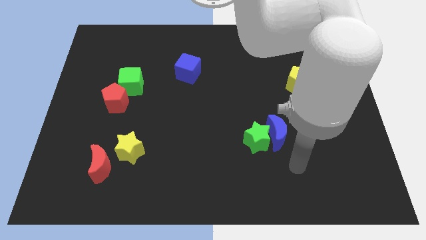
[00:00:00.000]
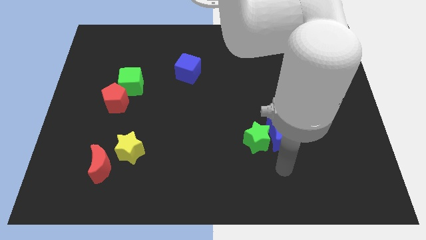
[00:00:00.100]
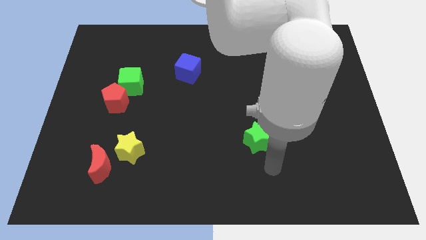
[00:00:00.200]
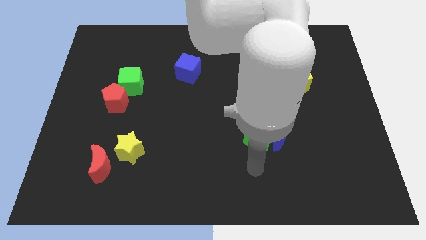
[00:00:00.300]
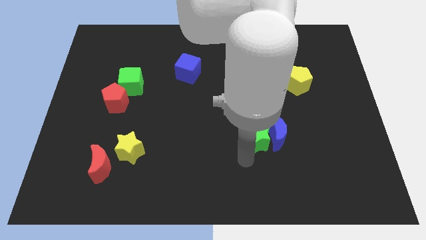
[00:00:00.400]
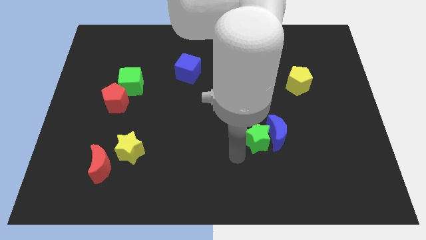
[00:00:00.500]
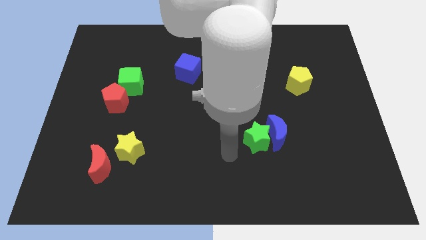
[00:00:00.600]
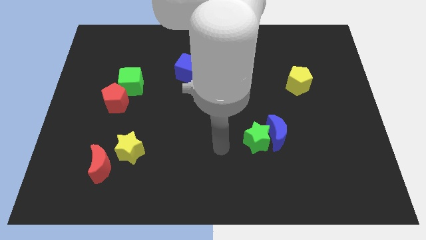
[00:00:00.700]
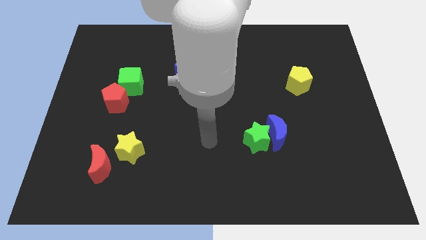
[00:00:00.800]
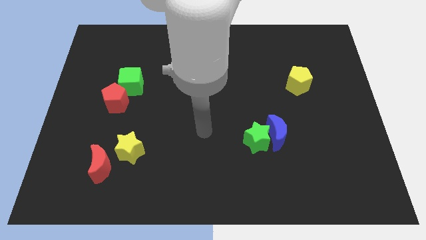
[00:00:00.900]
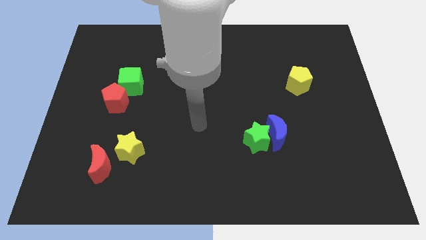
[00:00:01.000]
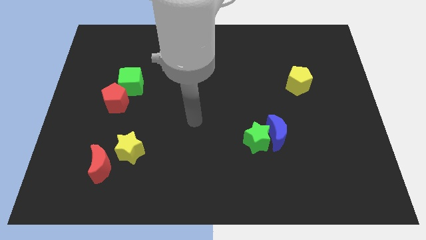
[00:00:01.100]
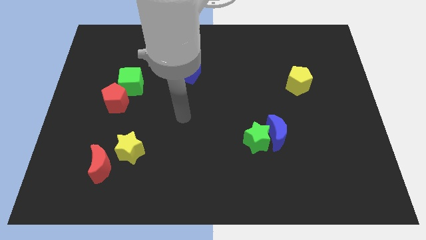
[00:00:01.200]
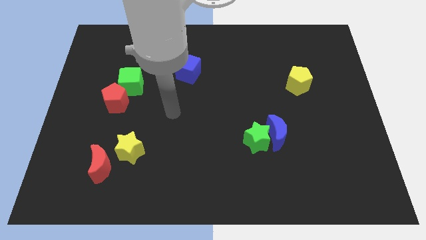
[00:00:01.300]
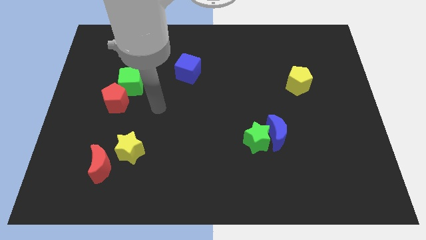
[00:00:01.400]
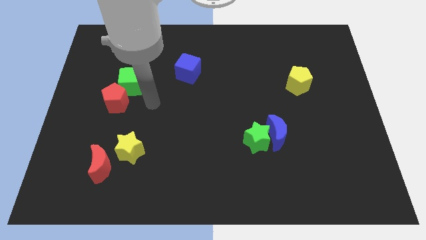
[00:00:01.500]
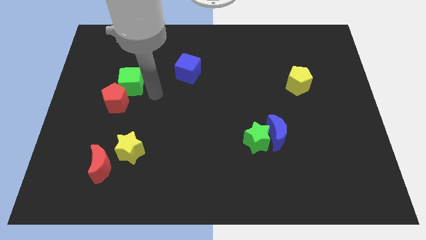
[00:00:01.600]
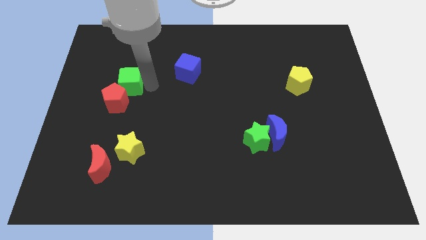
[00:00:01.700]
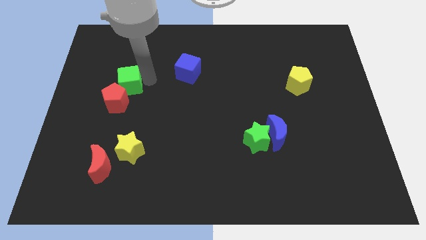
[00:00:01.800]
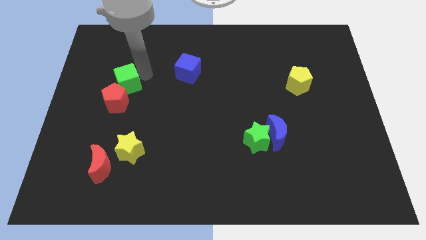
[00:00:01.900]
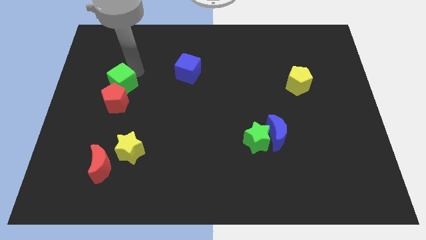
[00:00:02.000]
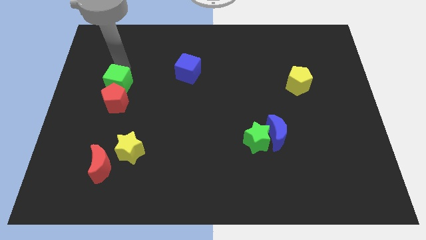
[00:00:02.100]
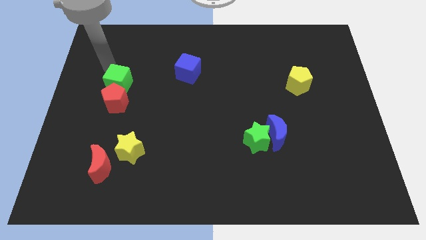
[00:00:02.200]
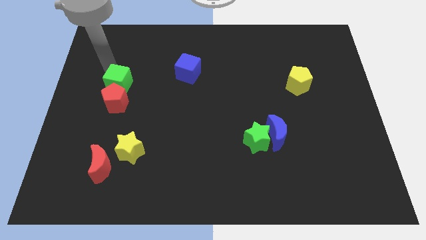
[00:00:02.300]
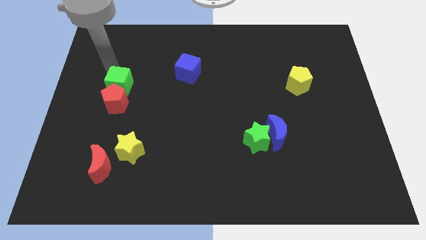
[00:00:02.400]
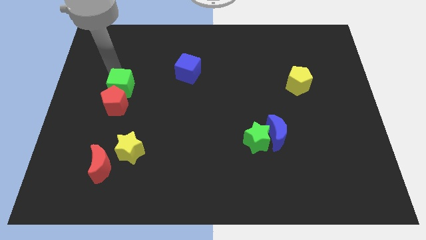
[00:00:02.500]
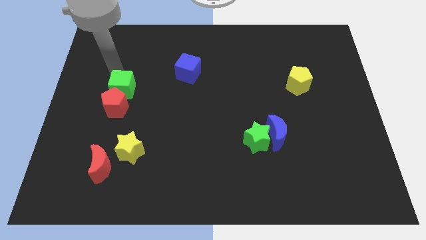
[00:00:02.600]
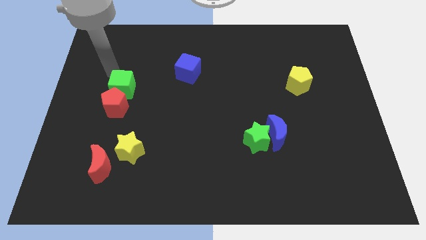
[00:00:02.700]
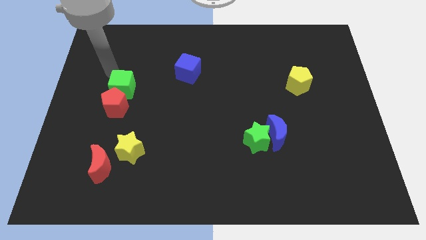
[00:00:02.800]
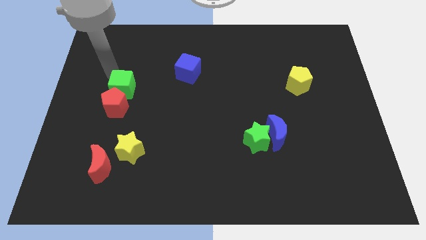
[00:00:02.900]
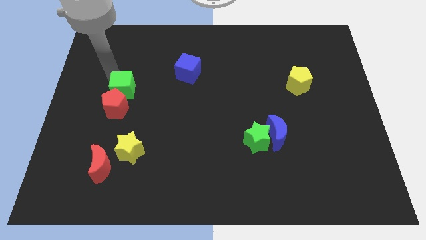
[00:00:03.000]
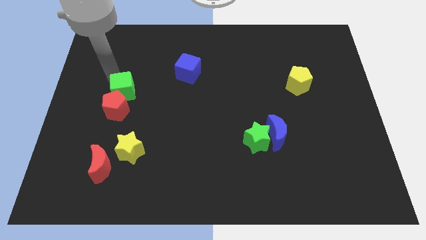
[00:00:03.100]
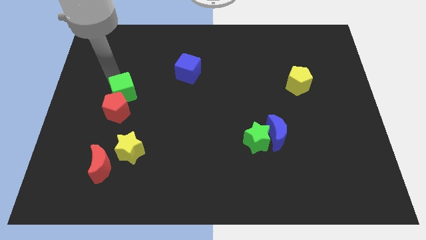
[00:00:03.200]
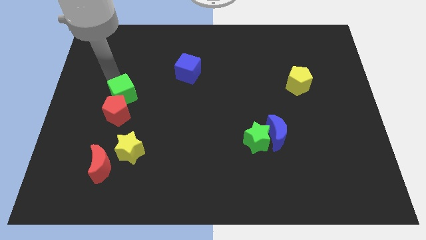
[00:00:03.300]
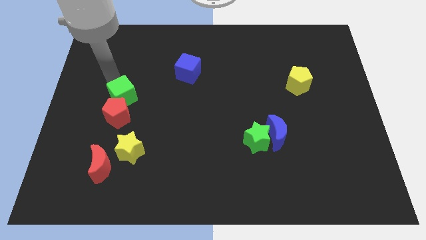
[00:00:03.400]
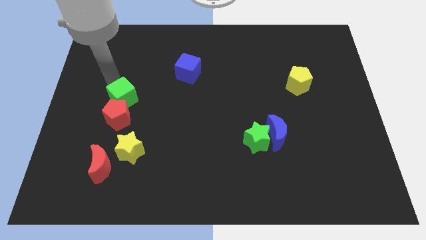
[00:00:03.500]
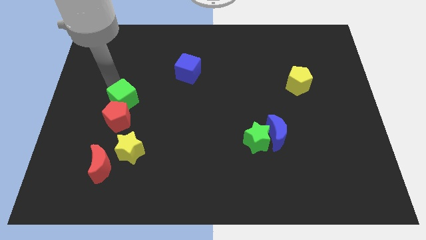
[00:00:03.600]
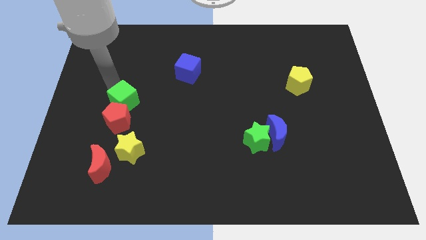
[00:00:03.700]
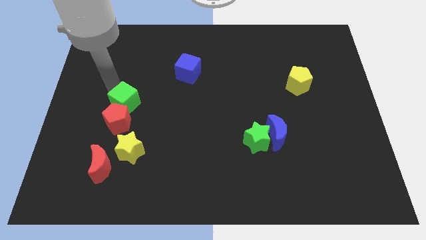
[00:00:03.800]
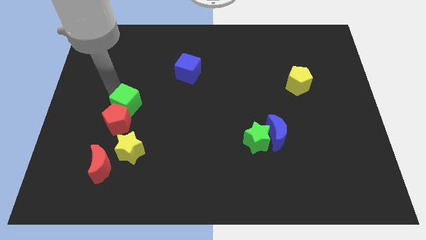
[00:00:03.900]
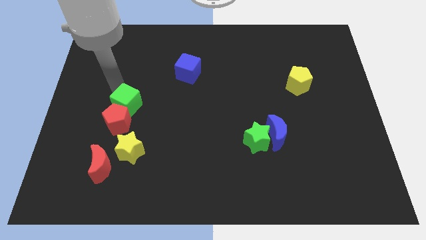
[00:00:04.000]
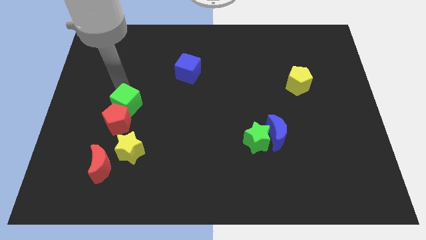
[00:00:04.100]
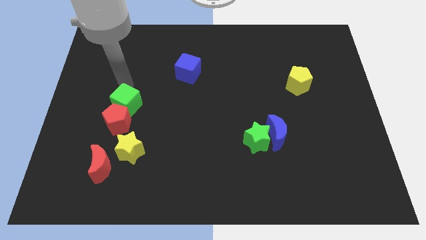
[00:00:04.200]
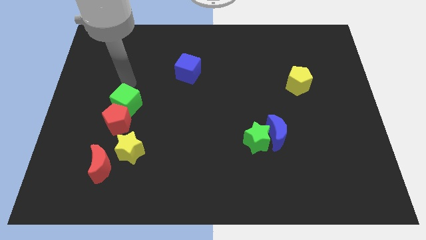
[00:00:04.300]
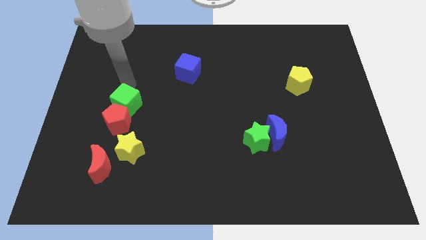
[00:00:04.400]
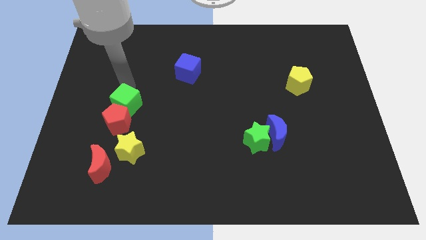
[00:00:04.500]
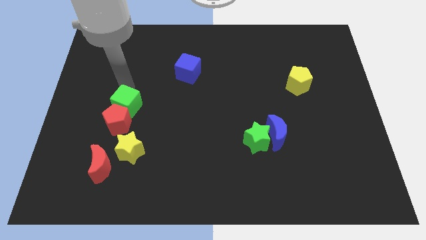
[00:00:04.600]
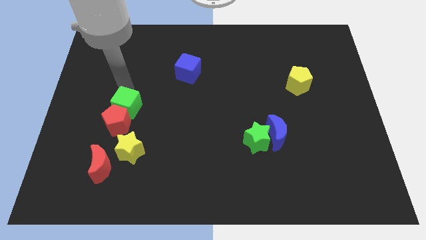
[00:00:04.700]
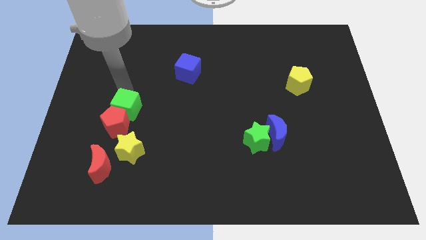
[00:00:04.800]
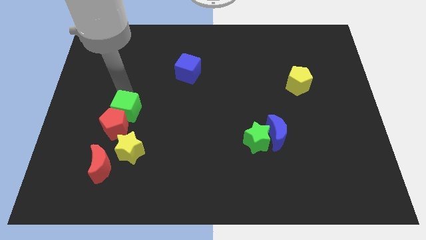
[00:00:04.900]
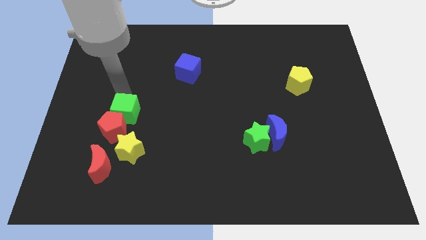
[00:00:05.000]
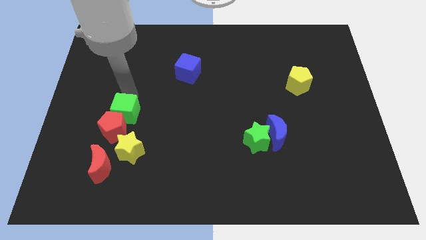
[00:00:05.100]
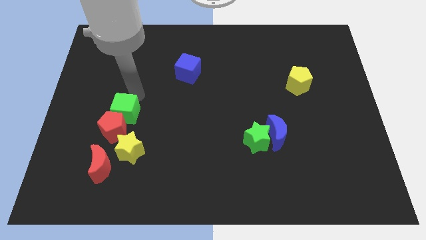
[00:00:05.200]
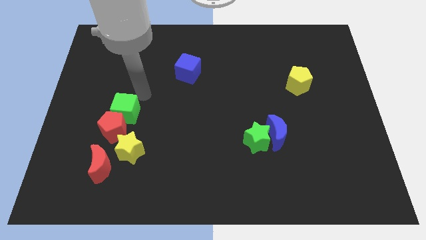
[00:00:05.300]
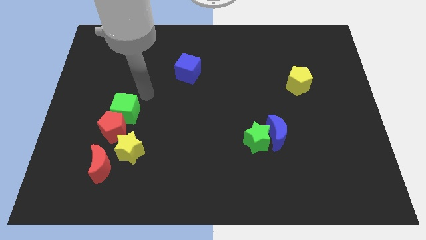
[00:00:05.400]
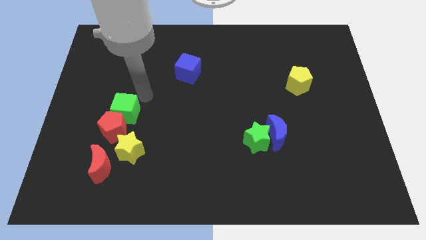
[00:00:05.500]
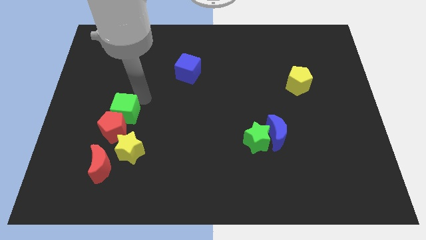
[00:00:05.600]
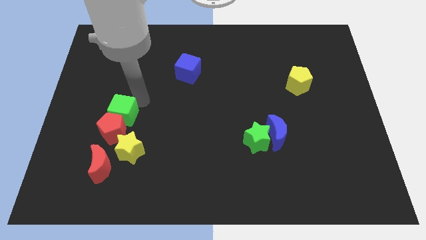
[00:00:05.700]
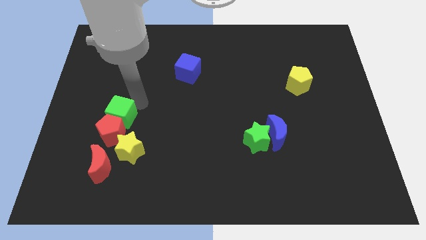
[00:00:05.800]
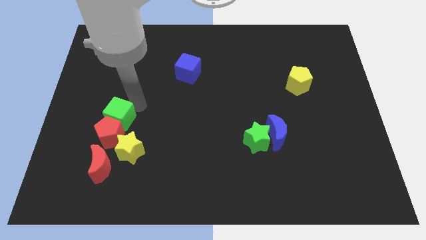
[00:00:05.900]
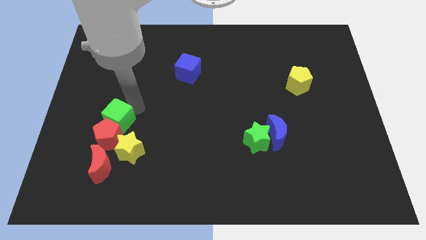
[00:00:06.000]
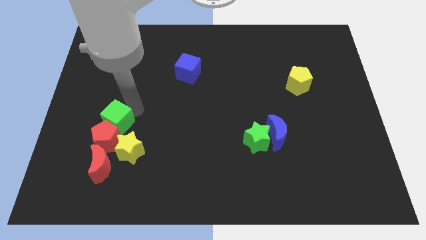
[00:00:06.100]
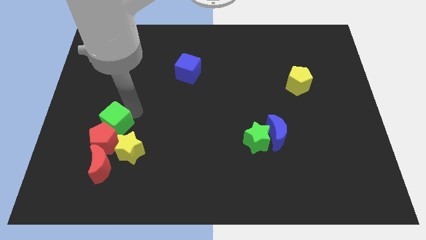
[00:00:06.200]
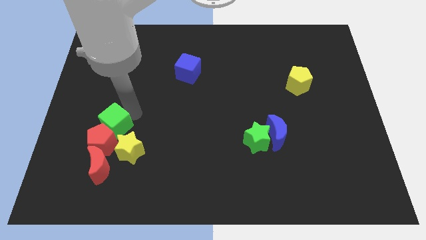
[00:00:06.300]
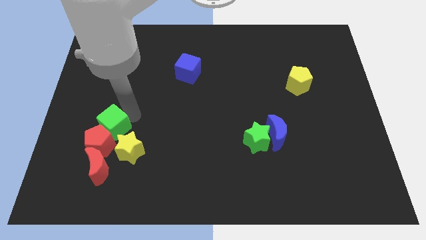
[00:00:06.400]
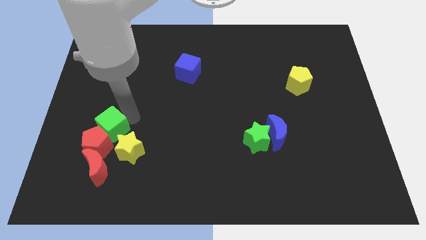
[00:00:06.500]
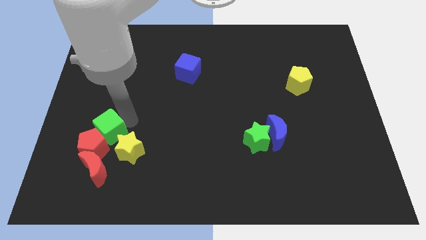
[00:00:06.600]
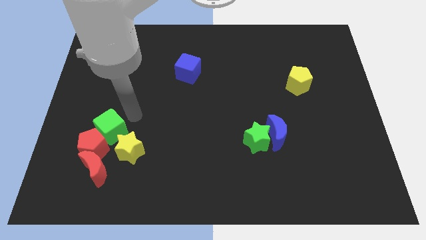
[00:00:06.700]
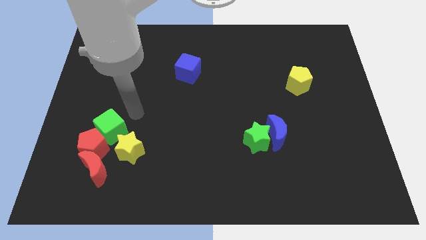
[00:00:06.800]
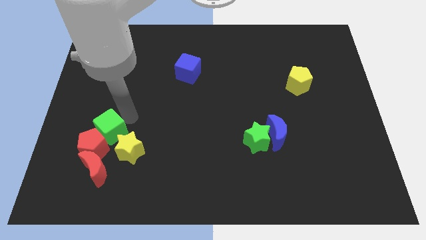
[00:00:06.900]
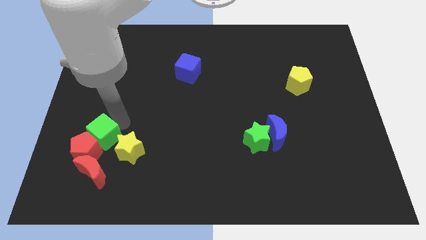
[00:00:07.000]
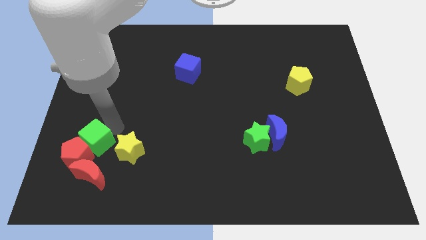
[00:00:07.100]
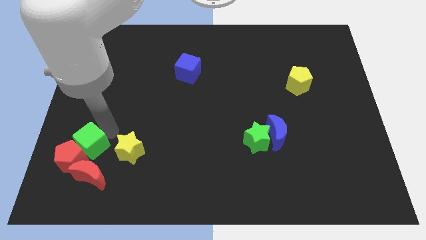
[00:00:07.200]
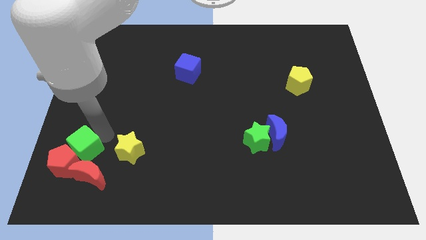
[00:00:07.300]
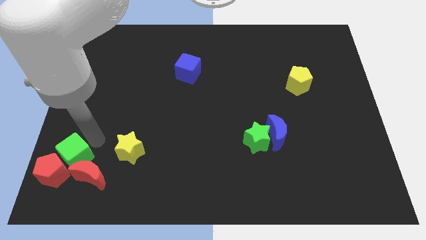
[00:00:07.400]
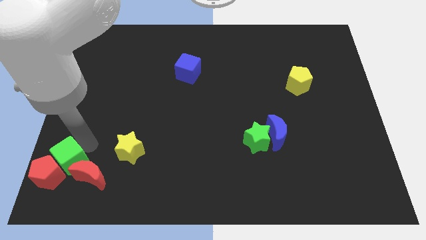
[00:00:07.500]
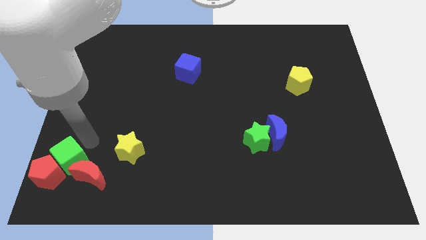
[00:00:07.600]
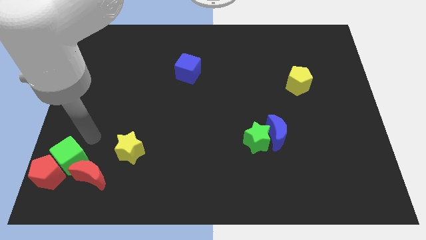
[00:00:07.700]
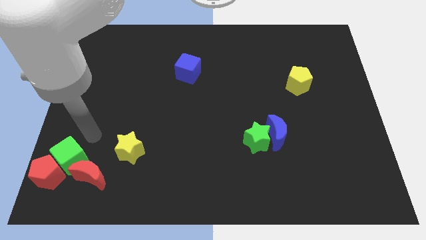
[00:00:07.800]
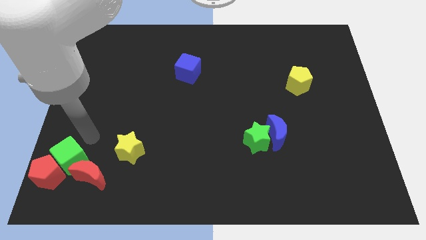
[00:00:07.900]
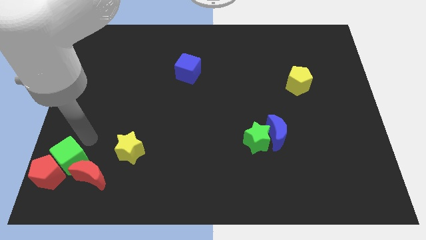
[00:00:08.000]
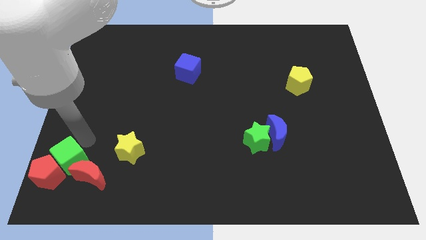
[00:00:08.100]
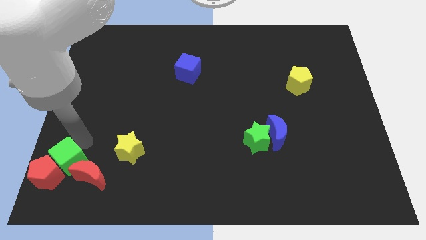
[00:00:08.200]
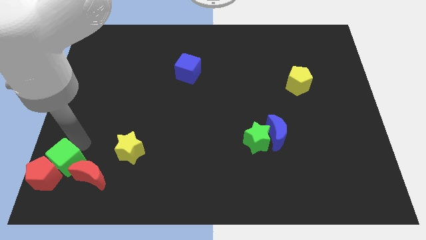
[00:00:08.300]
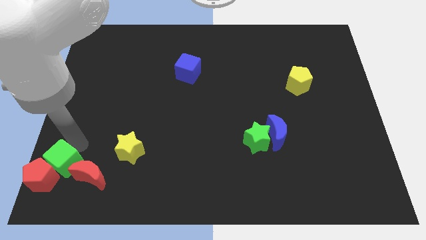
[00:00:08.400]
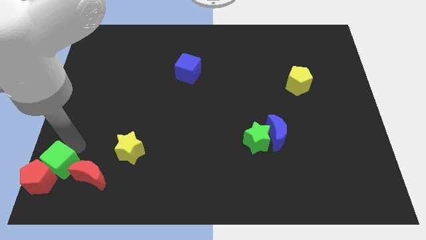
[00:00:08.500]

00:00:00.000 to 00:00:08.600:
put the green cube to the bottom left corner
